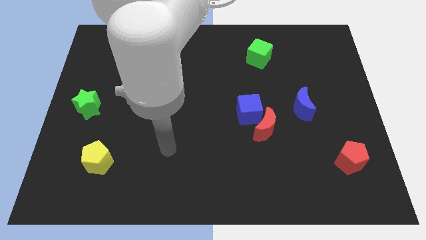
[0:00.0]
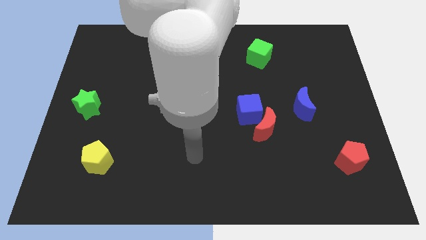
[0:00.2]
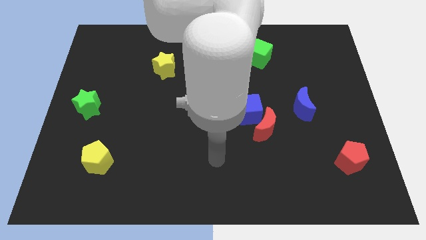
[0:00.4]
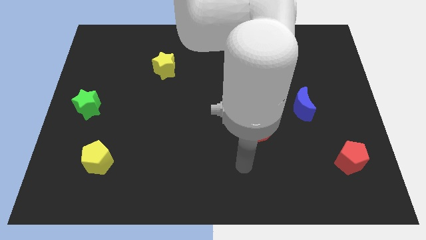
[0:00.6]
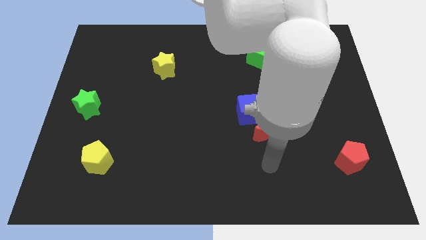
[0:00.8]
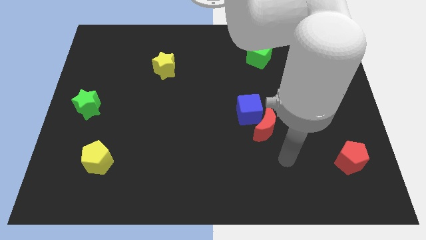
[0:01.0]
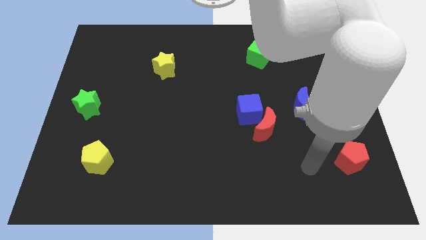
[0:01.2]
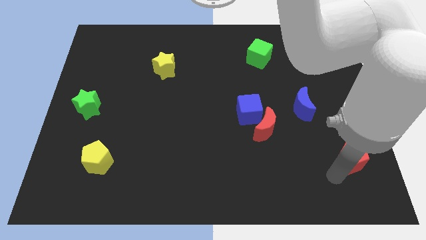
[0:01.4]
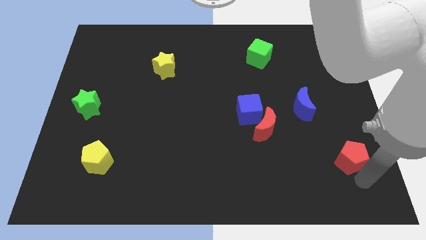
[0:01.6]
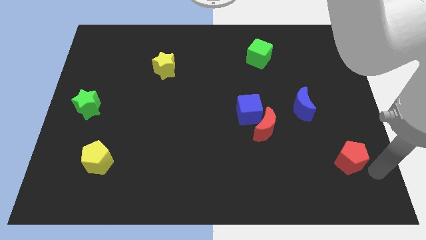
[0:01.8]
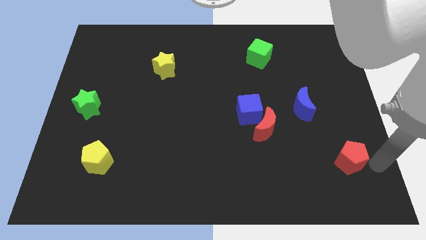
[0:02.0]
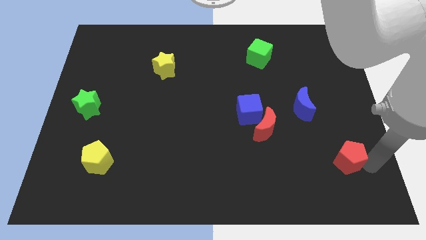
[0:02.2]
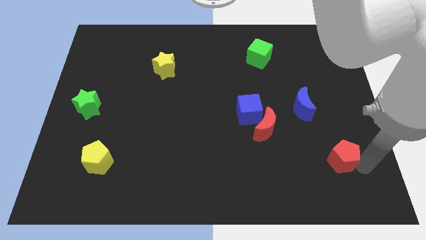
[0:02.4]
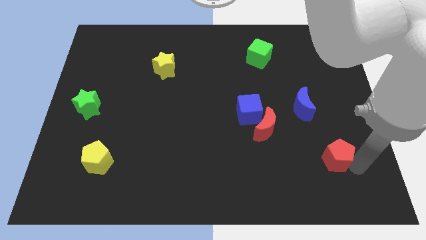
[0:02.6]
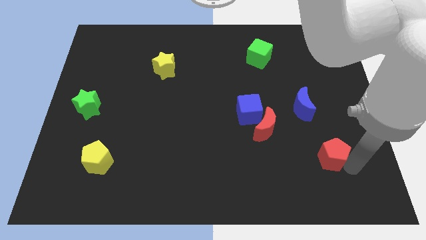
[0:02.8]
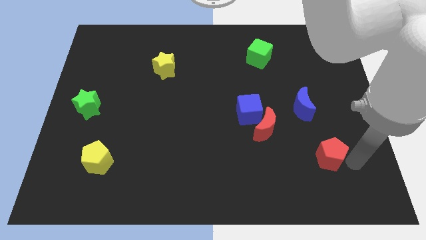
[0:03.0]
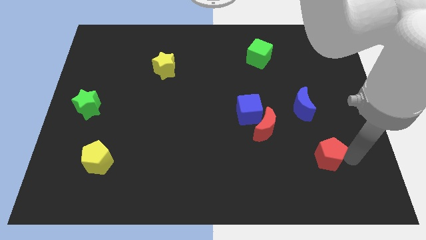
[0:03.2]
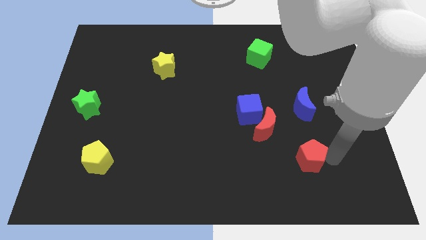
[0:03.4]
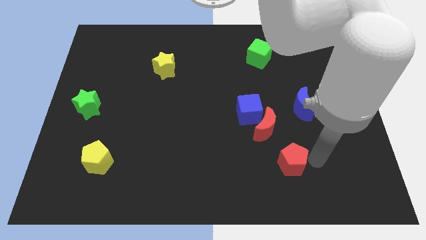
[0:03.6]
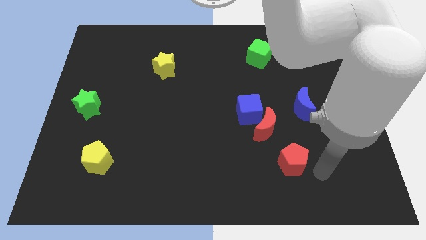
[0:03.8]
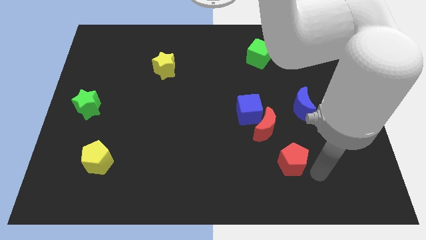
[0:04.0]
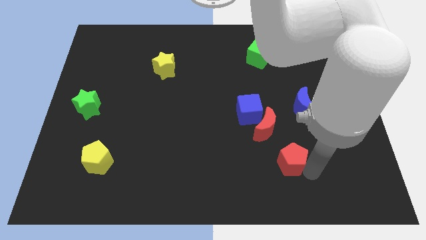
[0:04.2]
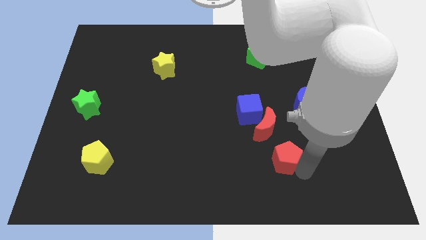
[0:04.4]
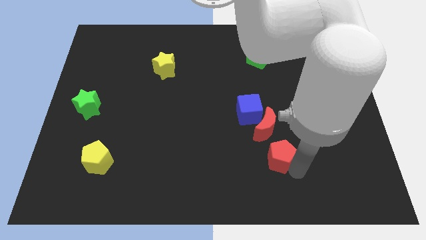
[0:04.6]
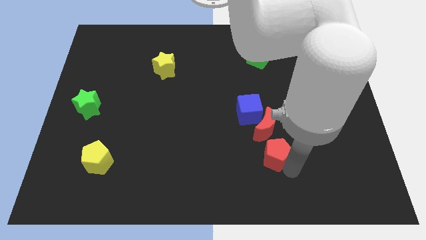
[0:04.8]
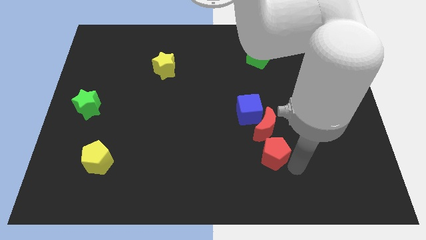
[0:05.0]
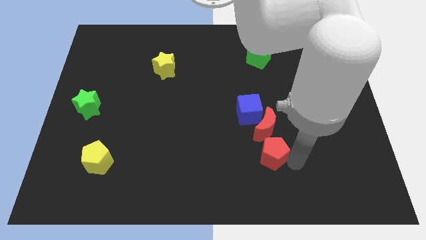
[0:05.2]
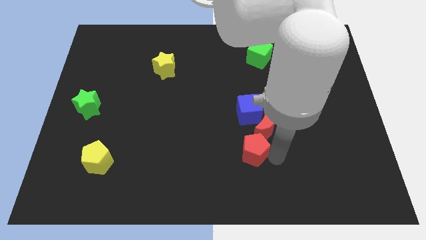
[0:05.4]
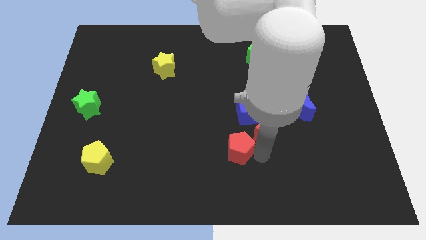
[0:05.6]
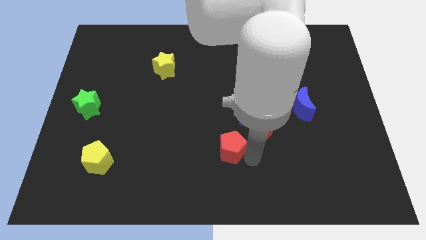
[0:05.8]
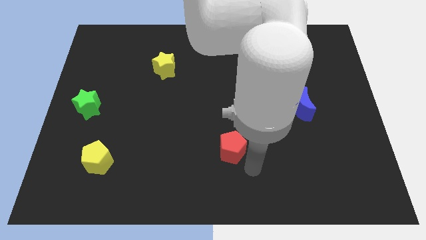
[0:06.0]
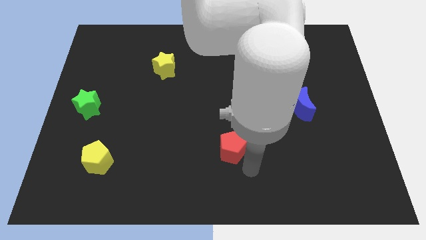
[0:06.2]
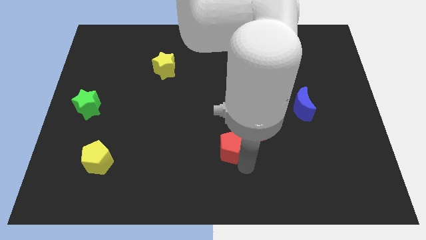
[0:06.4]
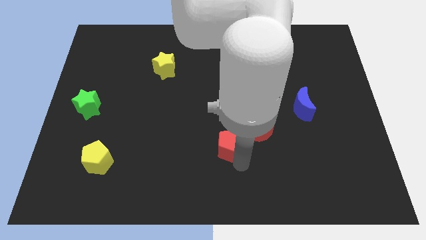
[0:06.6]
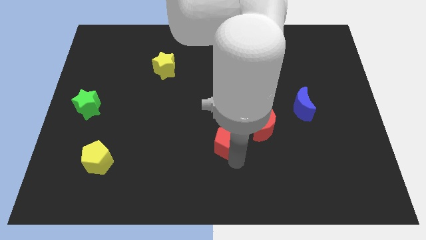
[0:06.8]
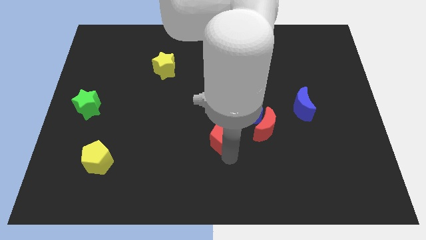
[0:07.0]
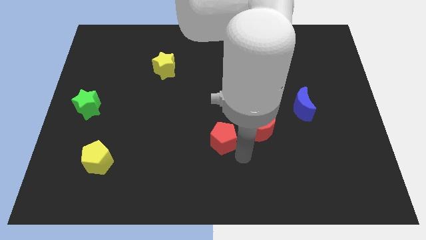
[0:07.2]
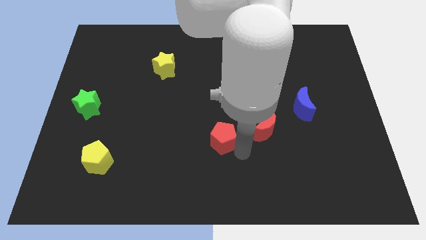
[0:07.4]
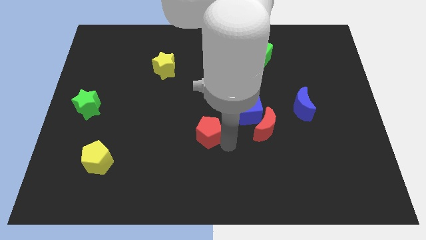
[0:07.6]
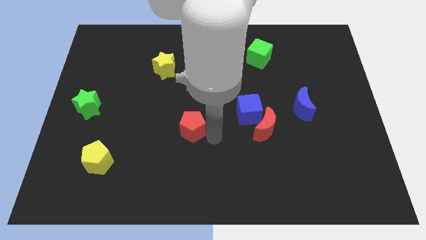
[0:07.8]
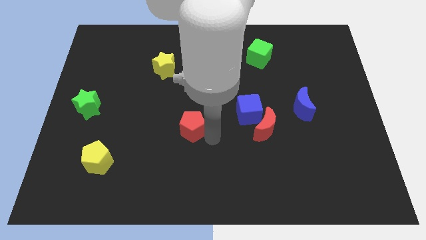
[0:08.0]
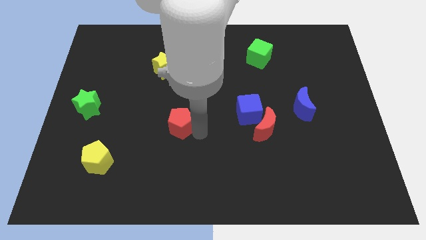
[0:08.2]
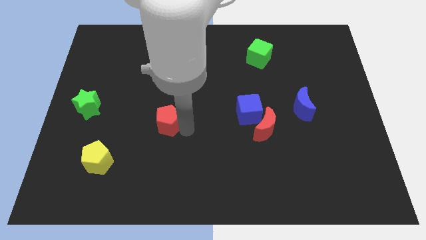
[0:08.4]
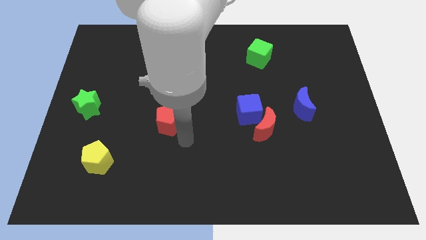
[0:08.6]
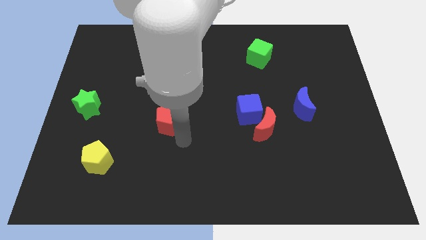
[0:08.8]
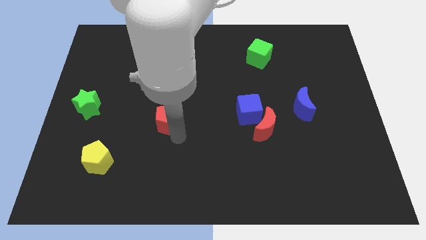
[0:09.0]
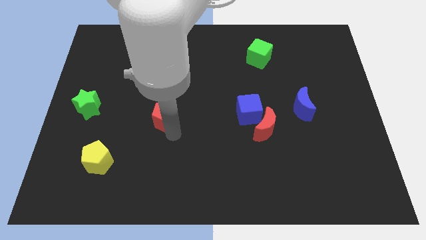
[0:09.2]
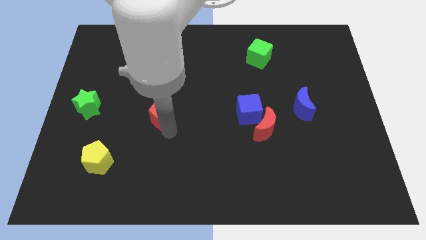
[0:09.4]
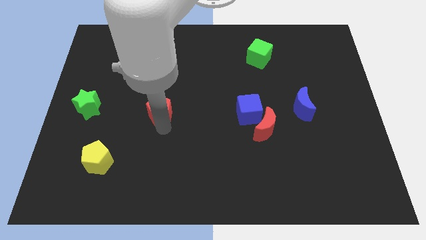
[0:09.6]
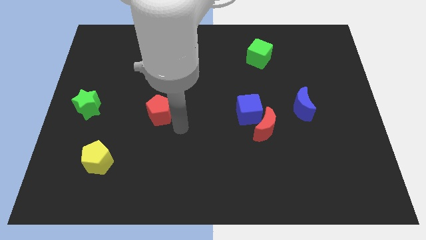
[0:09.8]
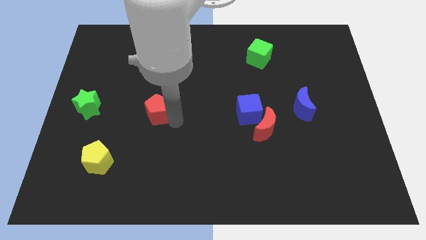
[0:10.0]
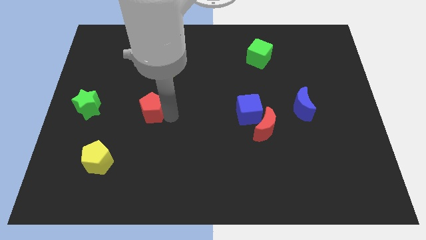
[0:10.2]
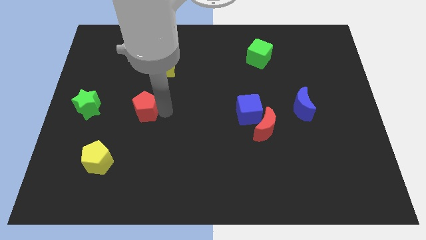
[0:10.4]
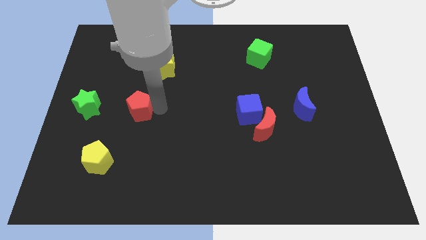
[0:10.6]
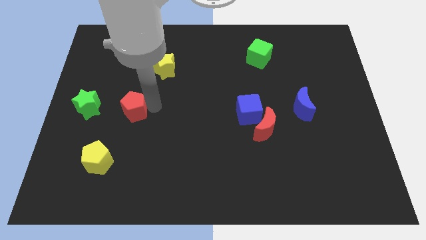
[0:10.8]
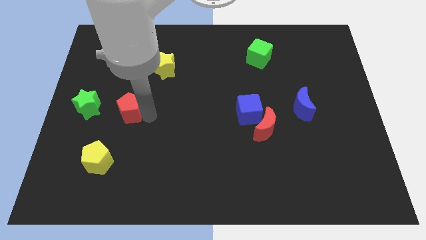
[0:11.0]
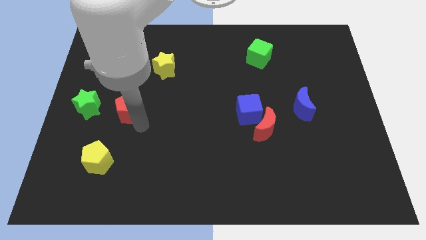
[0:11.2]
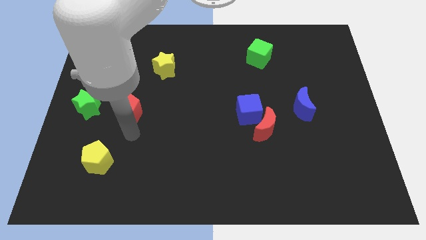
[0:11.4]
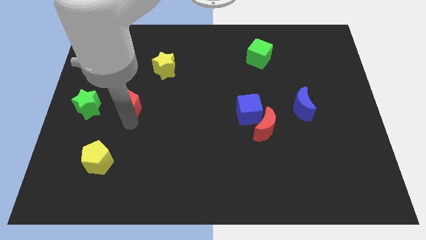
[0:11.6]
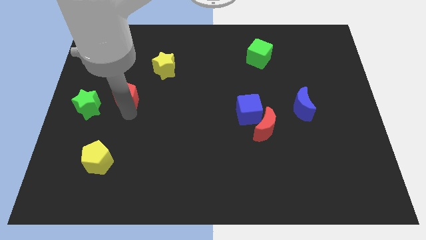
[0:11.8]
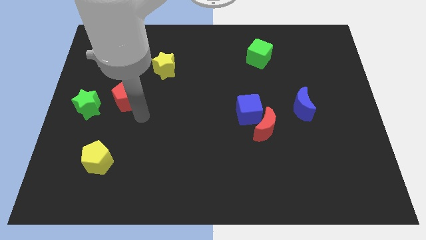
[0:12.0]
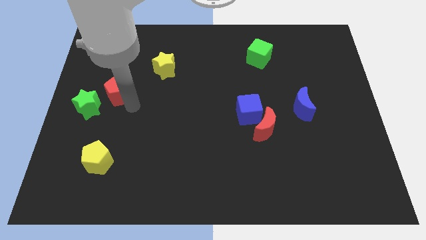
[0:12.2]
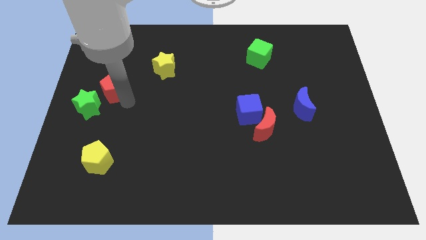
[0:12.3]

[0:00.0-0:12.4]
slide the red pentagon to the top side of the green star
